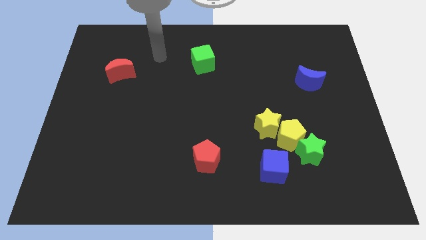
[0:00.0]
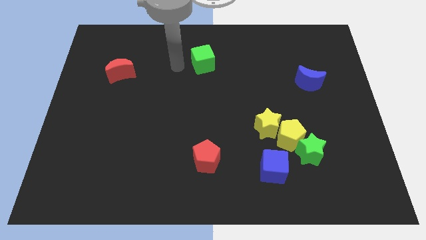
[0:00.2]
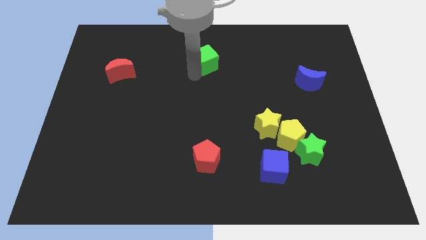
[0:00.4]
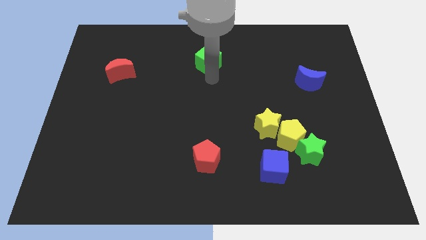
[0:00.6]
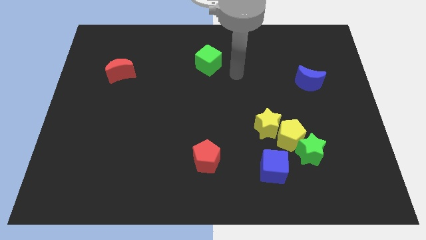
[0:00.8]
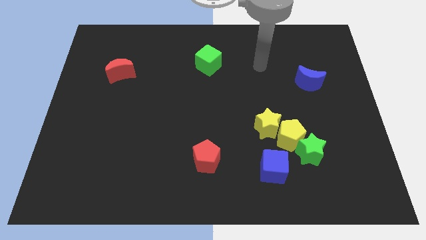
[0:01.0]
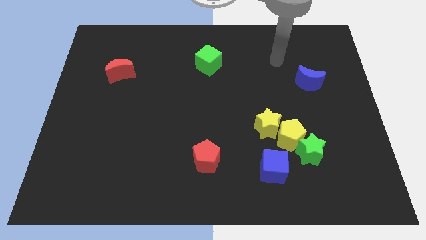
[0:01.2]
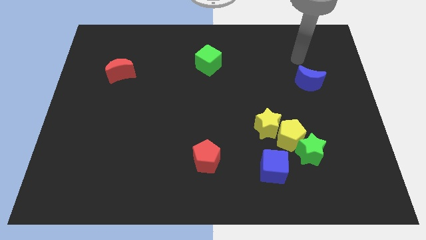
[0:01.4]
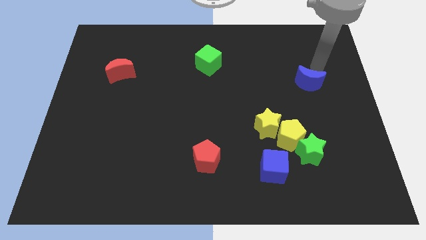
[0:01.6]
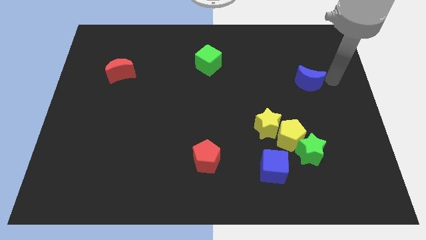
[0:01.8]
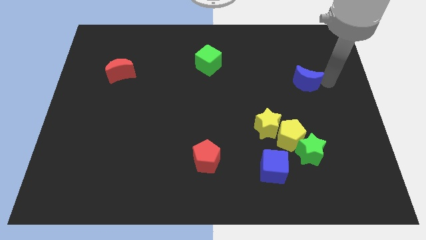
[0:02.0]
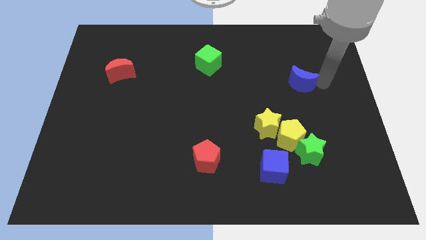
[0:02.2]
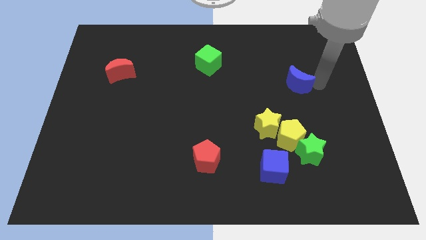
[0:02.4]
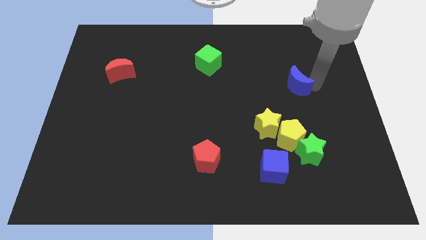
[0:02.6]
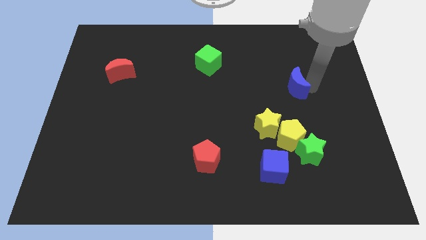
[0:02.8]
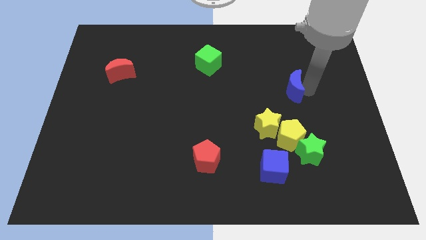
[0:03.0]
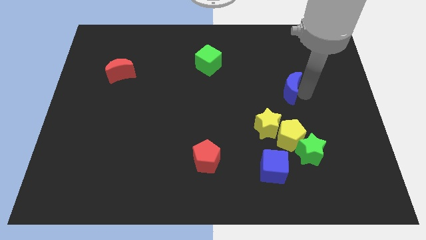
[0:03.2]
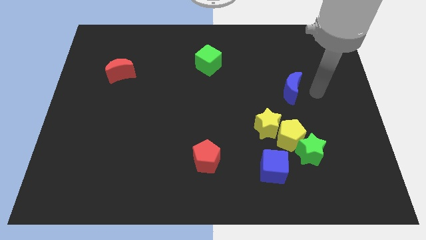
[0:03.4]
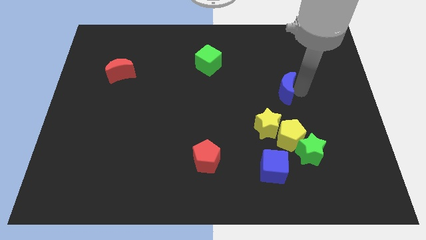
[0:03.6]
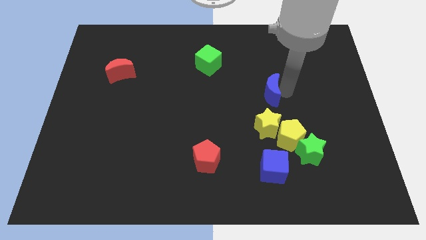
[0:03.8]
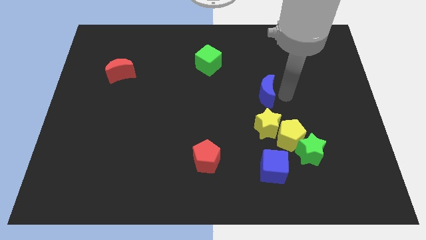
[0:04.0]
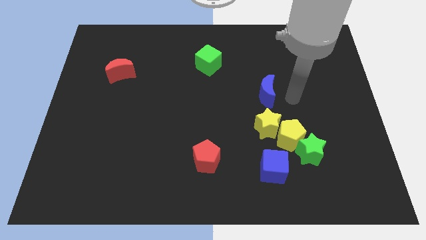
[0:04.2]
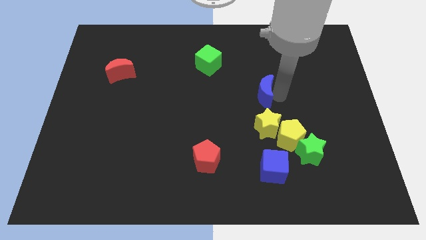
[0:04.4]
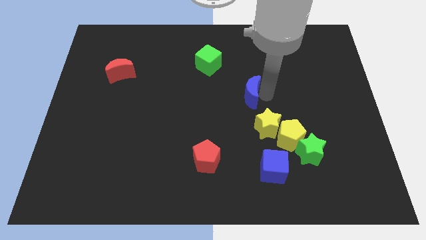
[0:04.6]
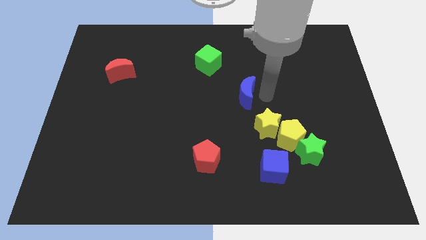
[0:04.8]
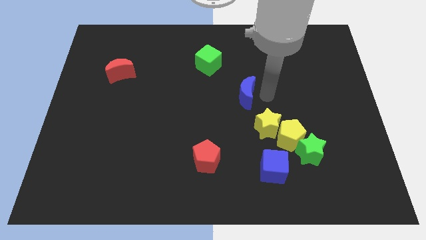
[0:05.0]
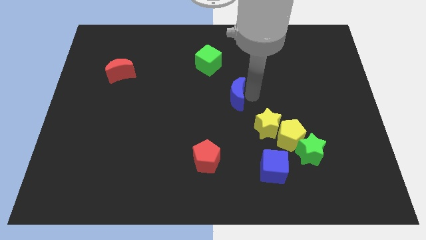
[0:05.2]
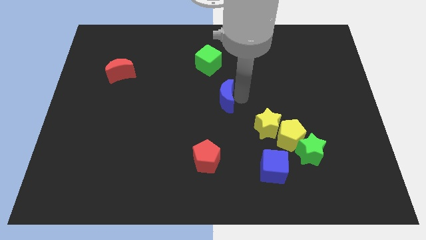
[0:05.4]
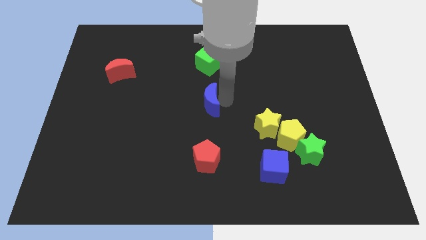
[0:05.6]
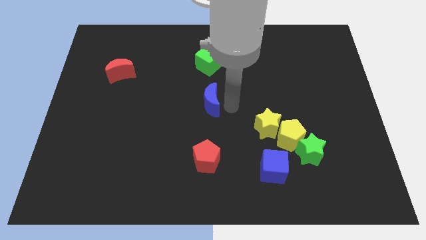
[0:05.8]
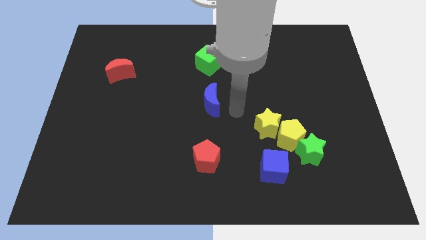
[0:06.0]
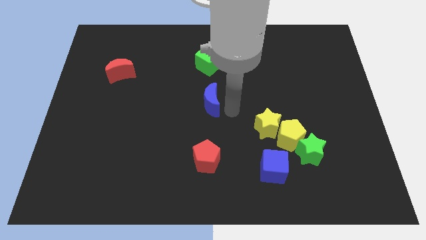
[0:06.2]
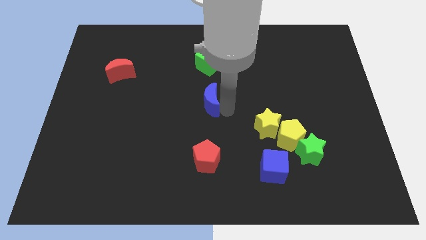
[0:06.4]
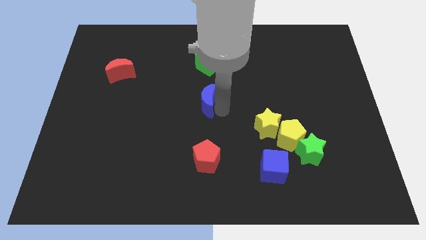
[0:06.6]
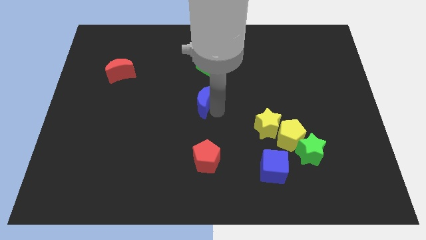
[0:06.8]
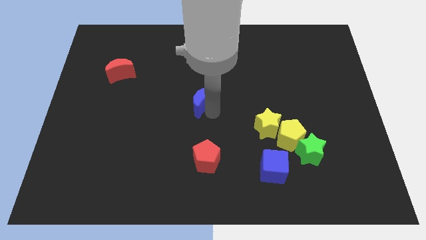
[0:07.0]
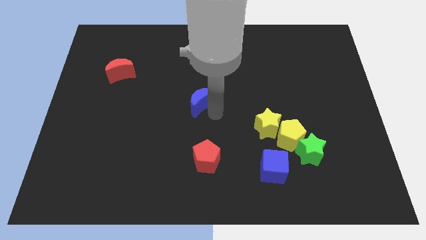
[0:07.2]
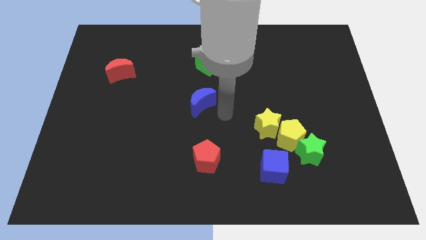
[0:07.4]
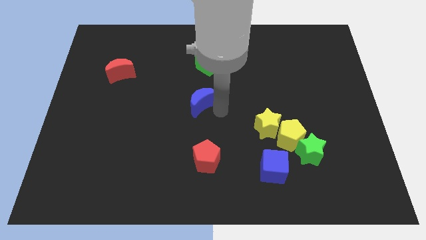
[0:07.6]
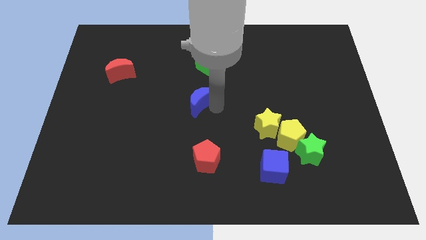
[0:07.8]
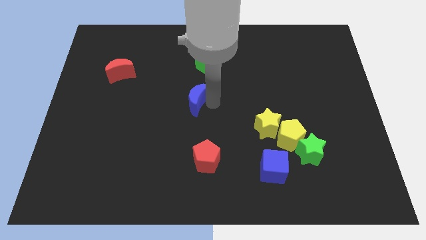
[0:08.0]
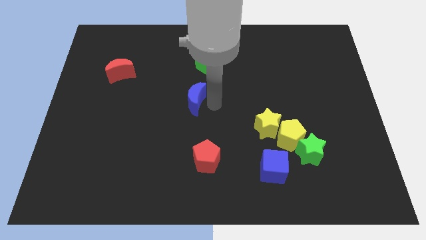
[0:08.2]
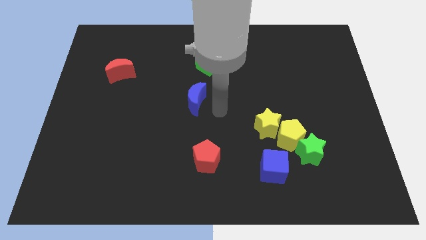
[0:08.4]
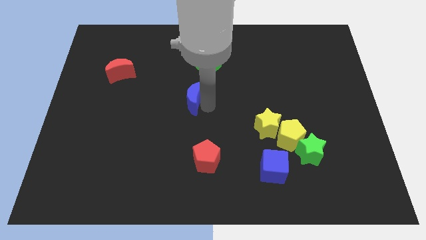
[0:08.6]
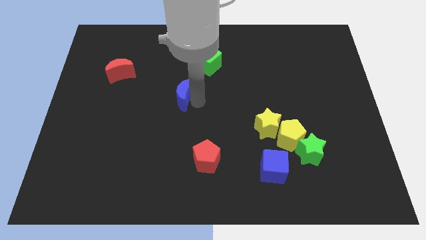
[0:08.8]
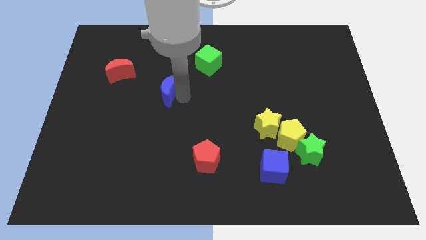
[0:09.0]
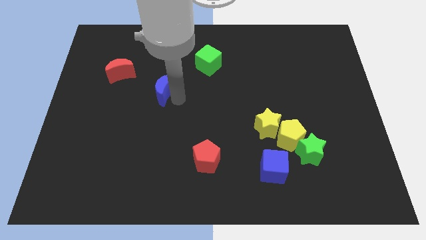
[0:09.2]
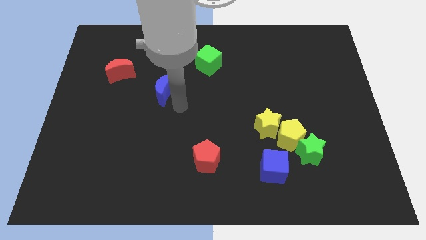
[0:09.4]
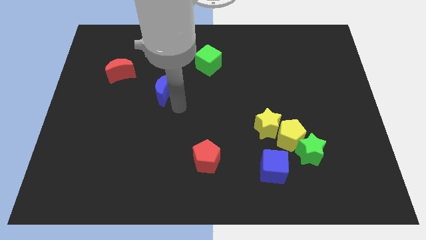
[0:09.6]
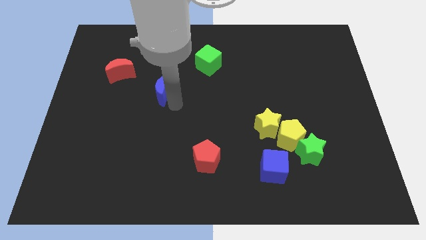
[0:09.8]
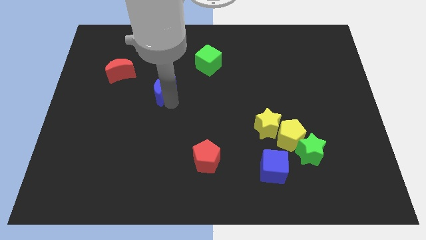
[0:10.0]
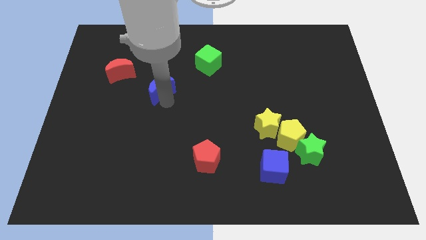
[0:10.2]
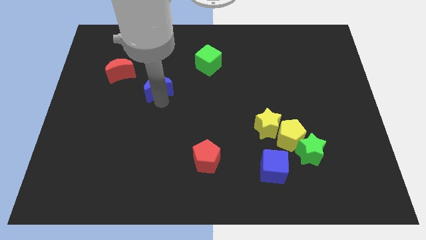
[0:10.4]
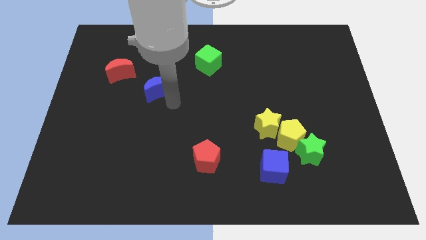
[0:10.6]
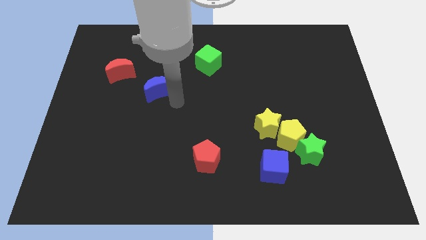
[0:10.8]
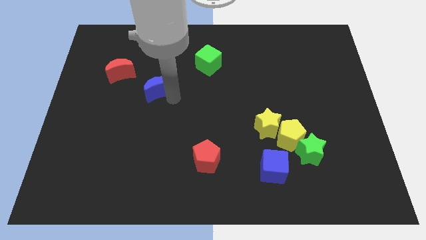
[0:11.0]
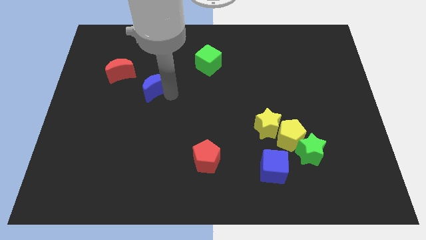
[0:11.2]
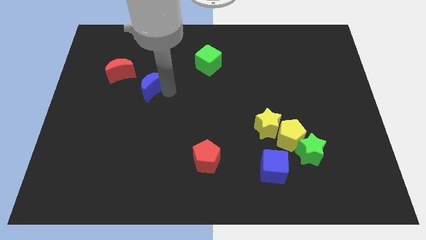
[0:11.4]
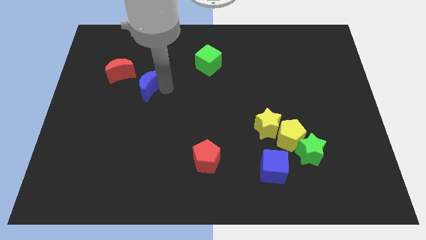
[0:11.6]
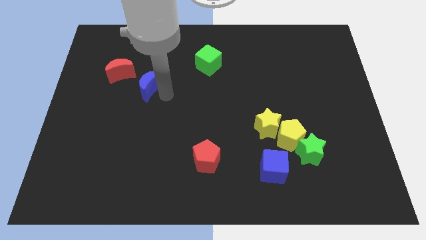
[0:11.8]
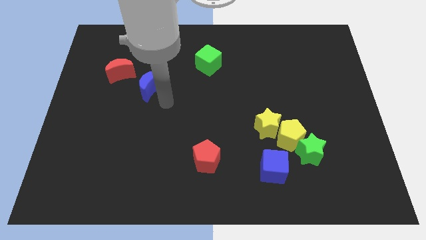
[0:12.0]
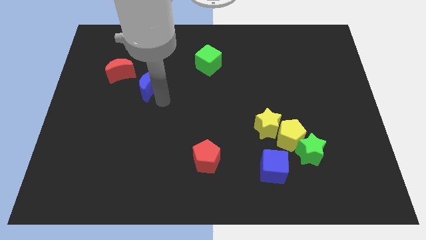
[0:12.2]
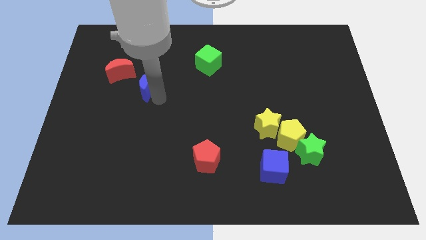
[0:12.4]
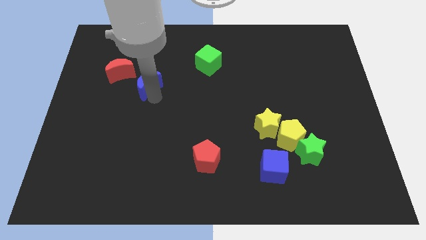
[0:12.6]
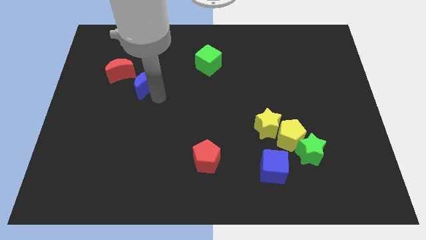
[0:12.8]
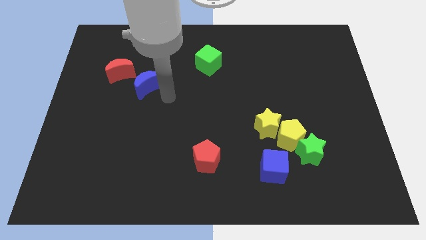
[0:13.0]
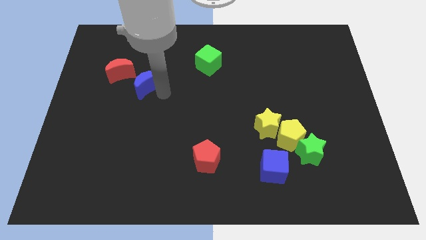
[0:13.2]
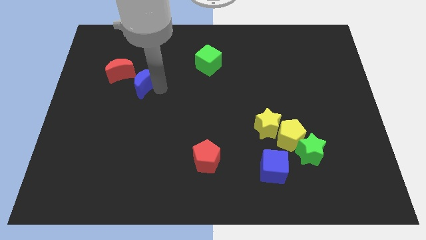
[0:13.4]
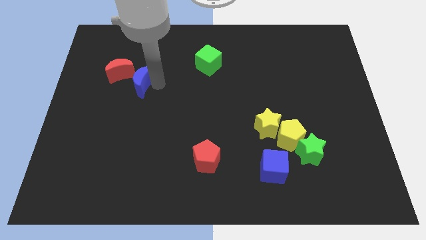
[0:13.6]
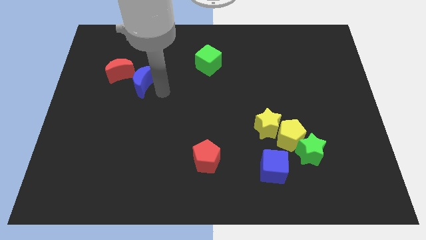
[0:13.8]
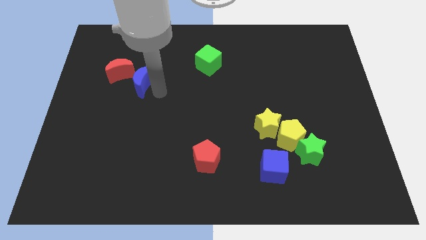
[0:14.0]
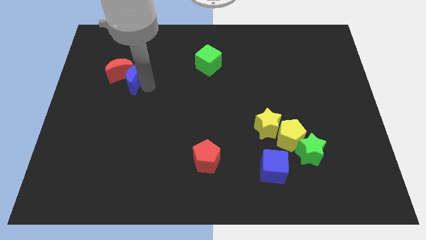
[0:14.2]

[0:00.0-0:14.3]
move the blue moon next to the red moon

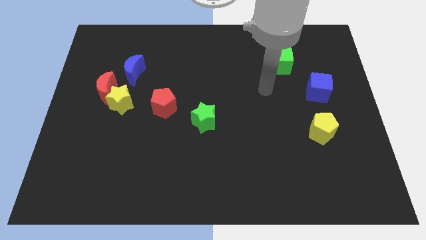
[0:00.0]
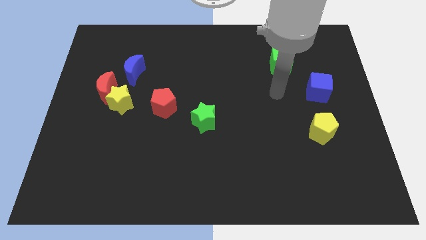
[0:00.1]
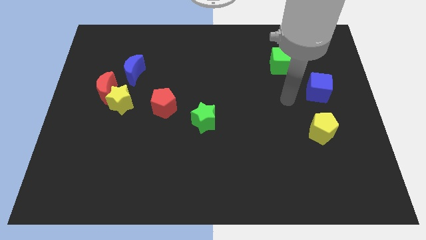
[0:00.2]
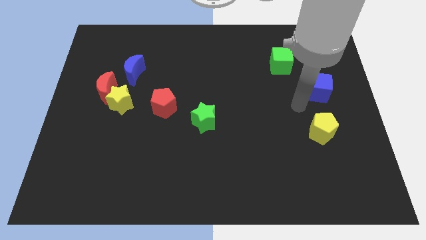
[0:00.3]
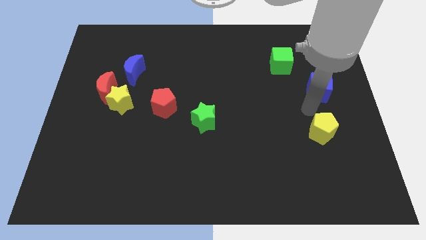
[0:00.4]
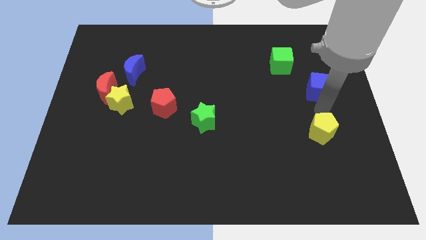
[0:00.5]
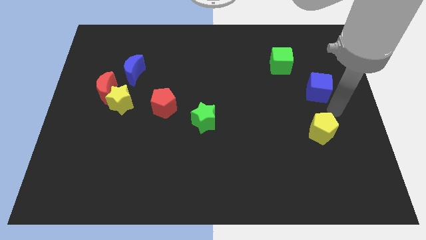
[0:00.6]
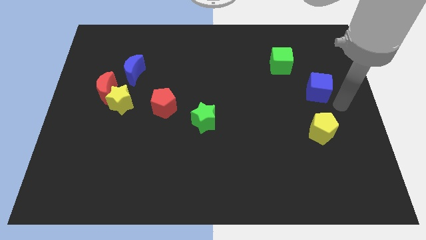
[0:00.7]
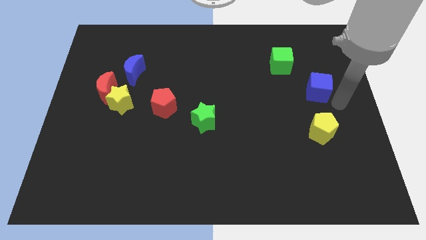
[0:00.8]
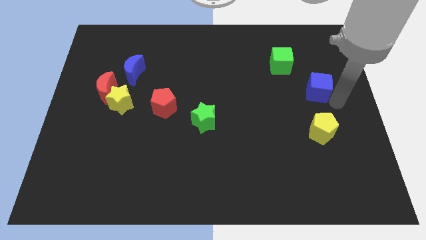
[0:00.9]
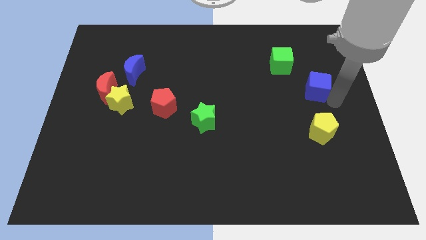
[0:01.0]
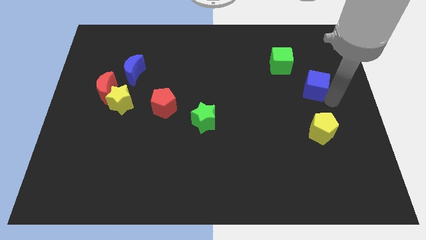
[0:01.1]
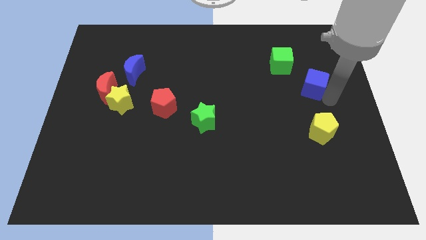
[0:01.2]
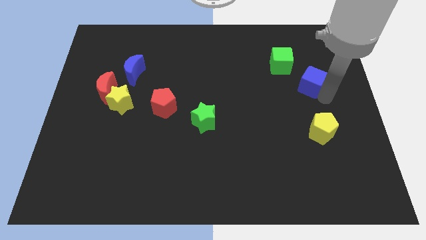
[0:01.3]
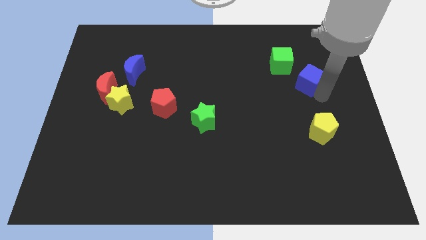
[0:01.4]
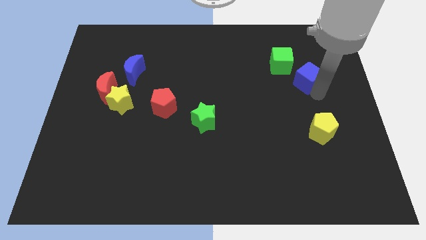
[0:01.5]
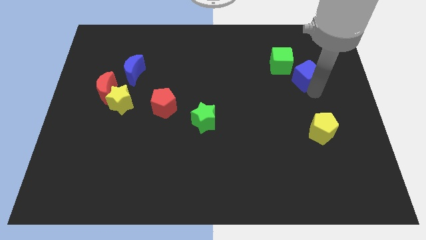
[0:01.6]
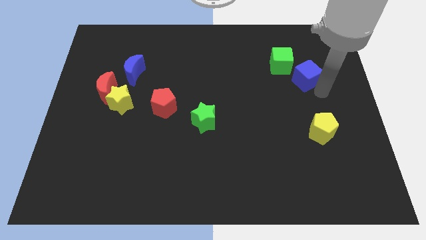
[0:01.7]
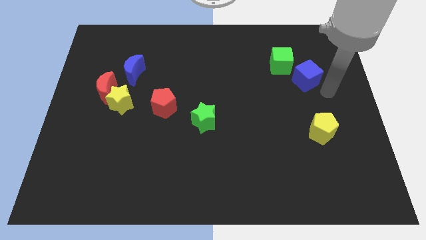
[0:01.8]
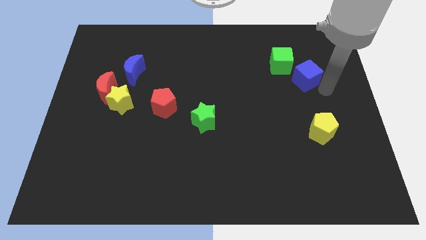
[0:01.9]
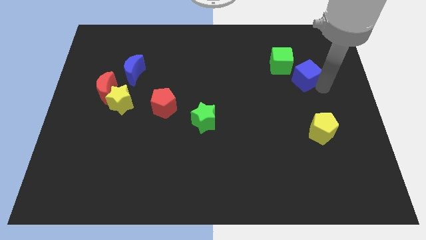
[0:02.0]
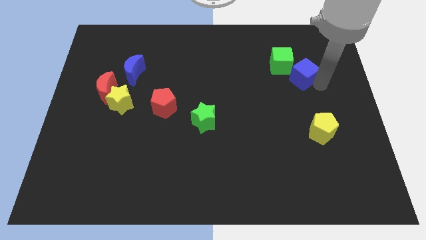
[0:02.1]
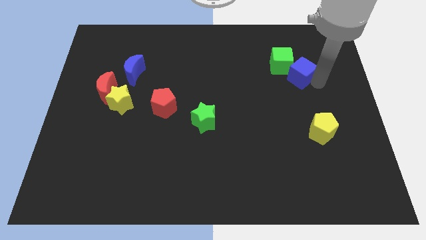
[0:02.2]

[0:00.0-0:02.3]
move the blue cube towards the green cube
